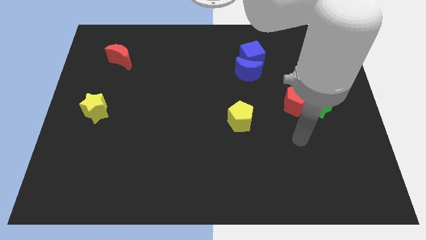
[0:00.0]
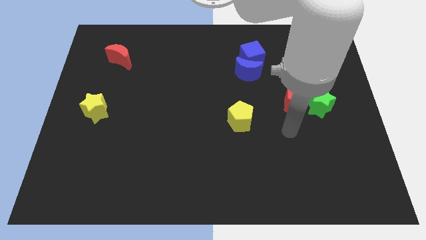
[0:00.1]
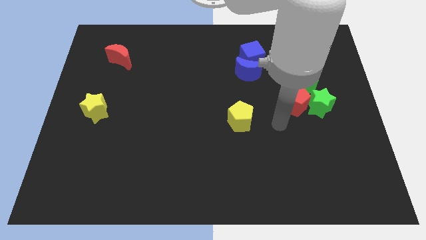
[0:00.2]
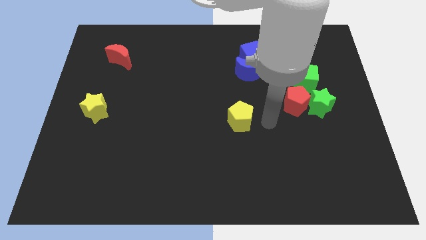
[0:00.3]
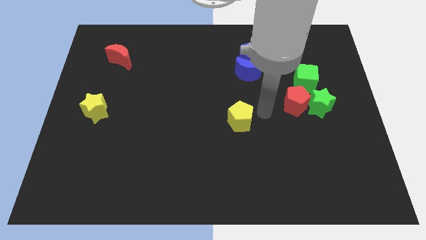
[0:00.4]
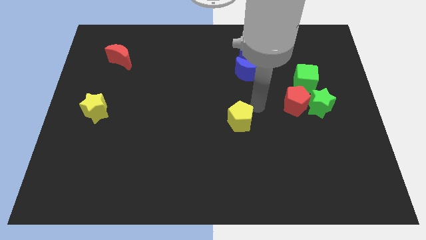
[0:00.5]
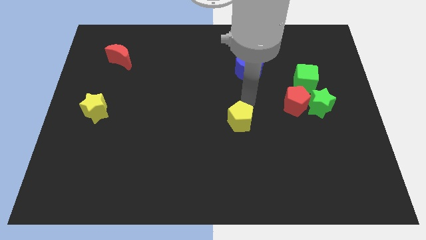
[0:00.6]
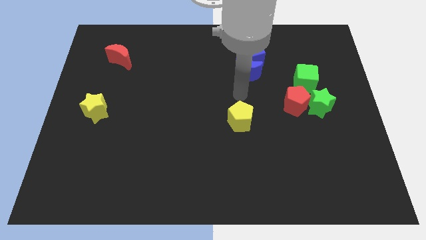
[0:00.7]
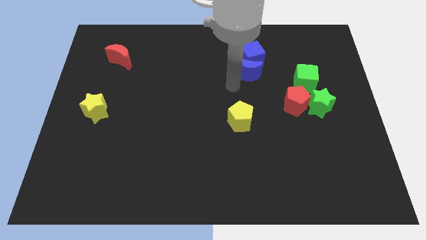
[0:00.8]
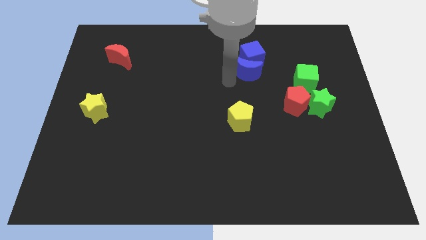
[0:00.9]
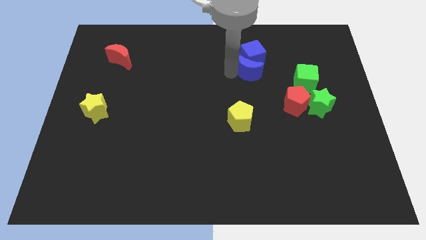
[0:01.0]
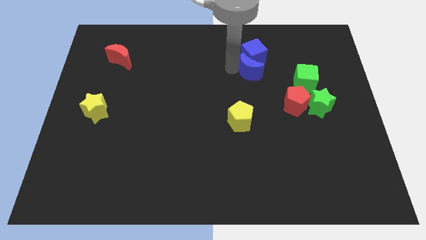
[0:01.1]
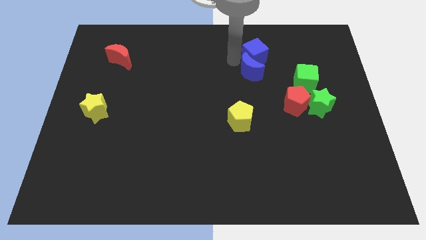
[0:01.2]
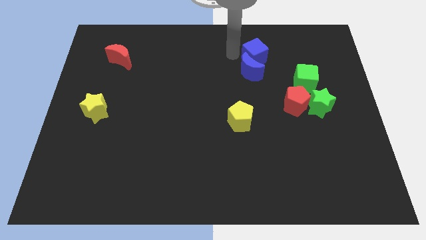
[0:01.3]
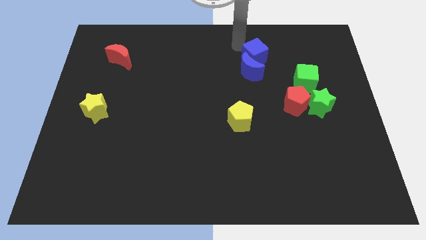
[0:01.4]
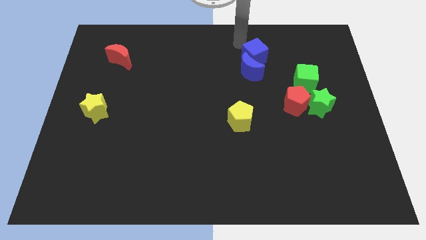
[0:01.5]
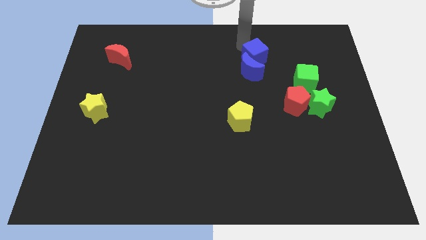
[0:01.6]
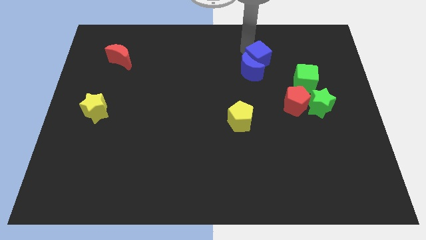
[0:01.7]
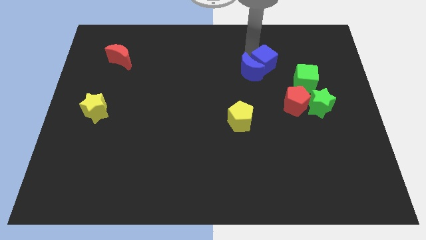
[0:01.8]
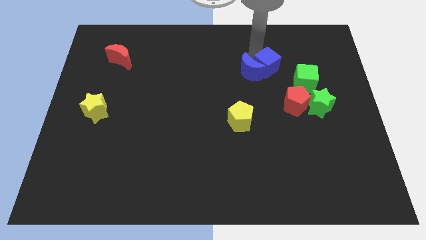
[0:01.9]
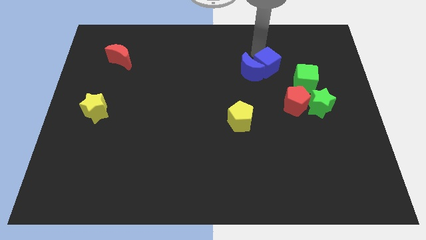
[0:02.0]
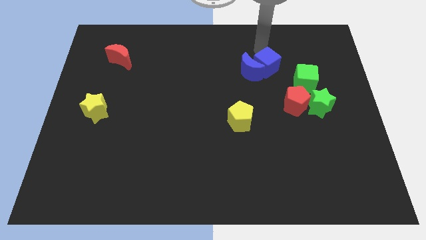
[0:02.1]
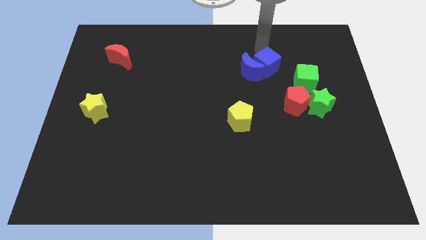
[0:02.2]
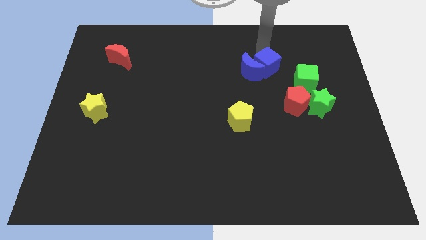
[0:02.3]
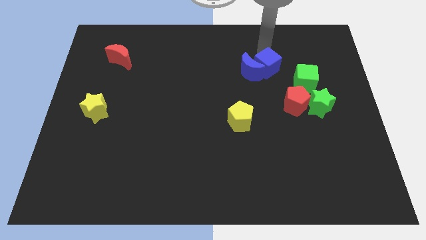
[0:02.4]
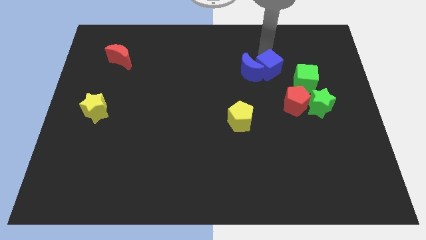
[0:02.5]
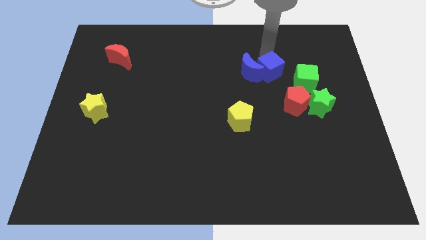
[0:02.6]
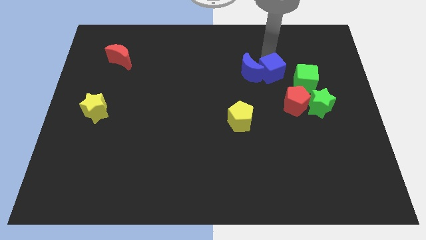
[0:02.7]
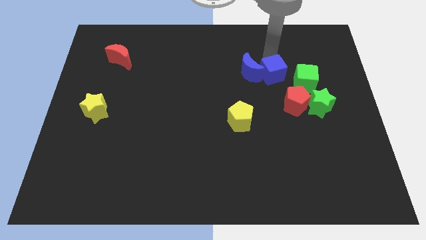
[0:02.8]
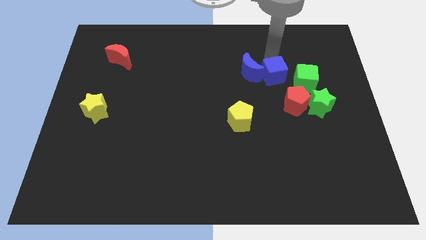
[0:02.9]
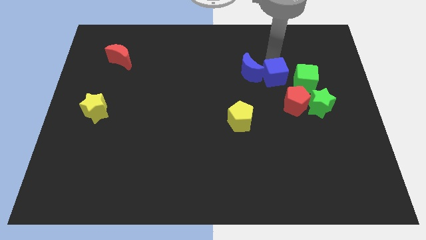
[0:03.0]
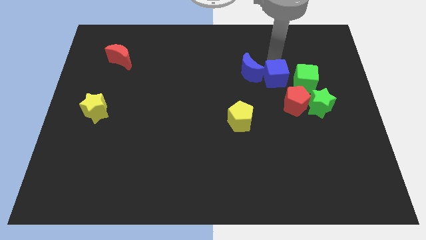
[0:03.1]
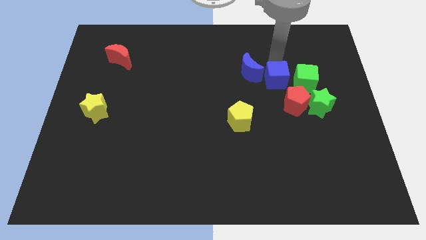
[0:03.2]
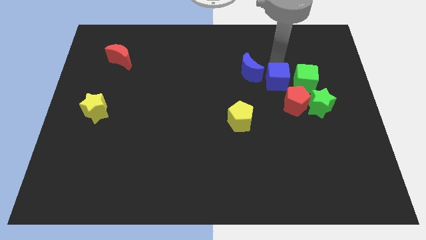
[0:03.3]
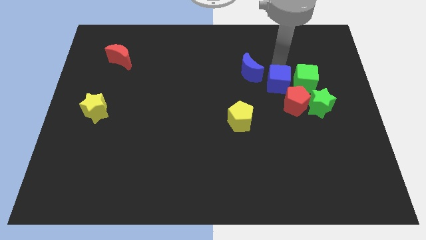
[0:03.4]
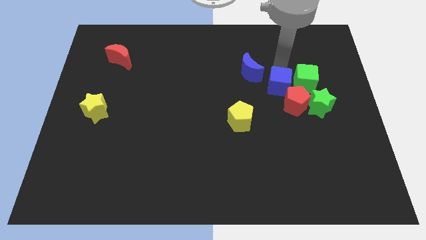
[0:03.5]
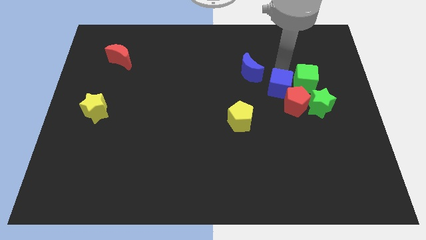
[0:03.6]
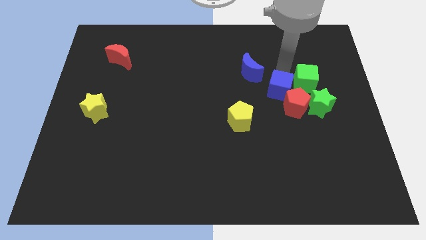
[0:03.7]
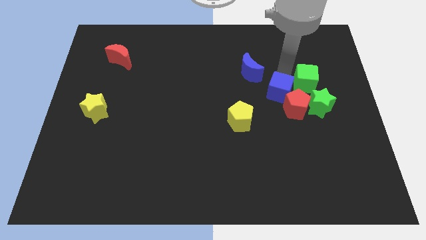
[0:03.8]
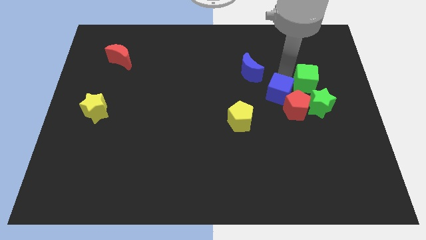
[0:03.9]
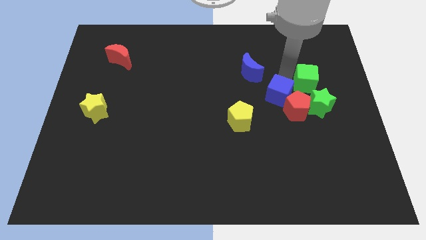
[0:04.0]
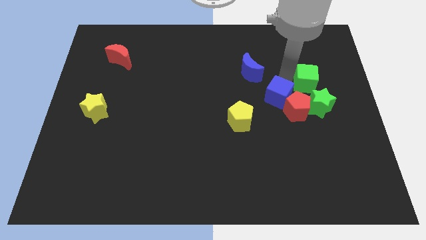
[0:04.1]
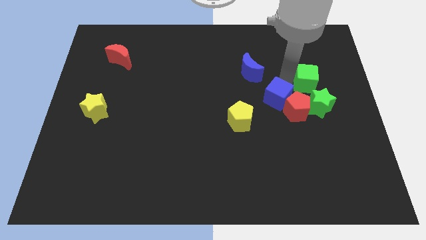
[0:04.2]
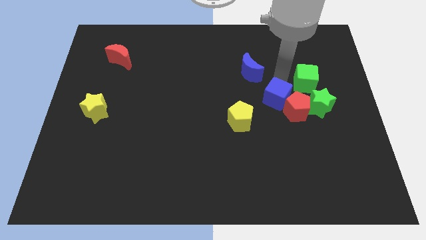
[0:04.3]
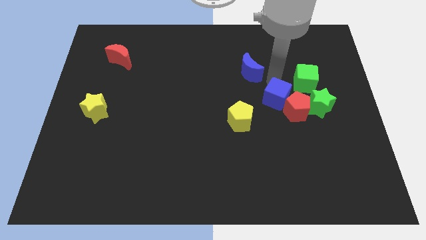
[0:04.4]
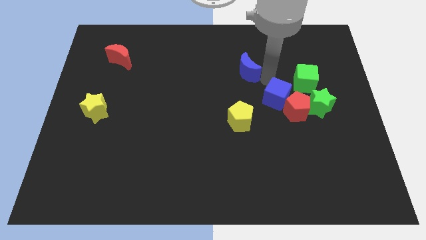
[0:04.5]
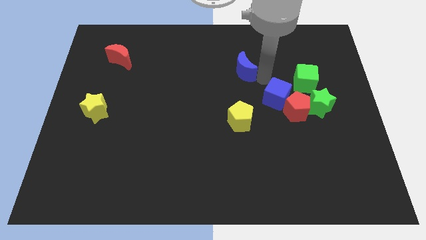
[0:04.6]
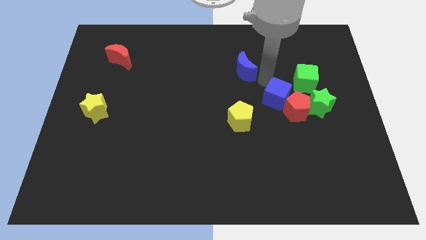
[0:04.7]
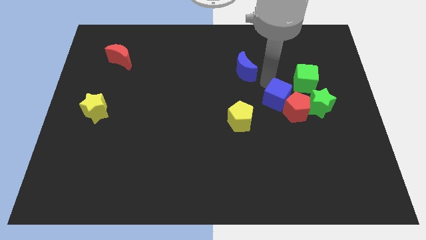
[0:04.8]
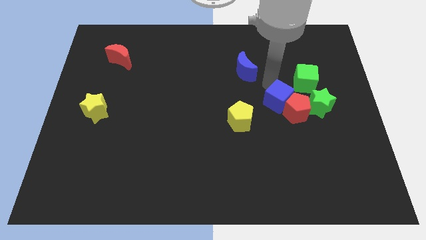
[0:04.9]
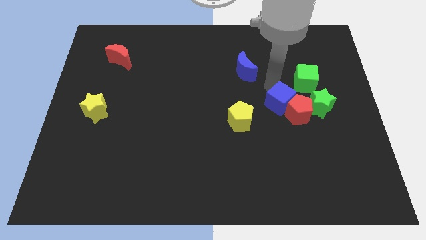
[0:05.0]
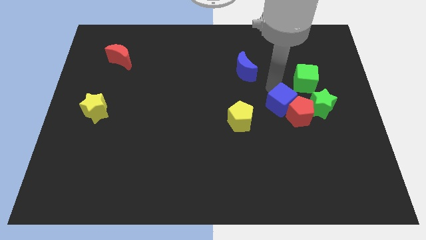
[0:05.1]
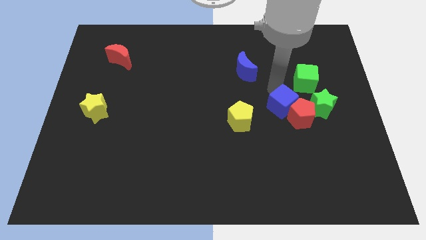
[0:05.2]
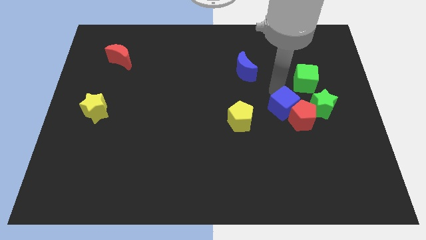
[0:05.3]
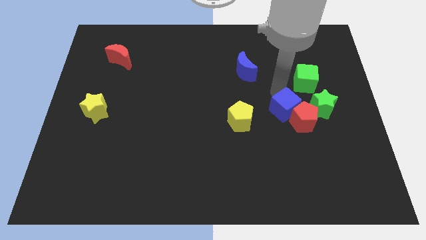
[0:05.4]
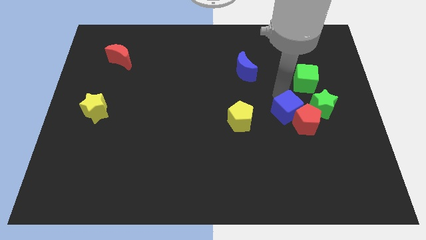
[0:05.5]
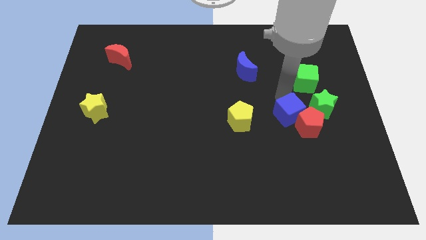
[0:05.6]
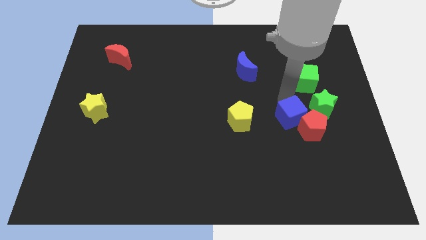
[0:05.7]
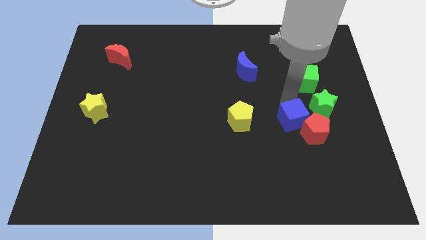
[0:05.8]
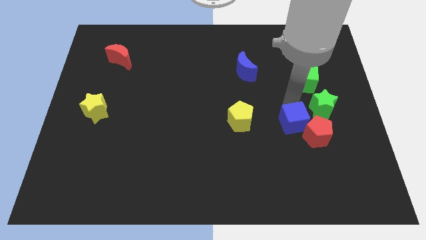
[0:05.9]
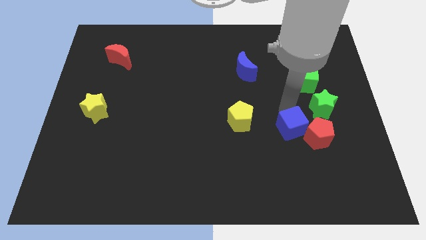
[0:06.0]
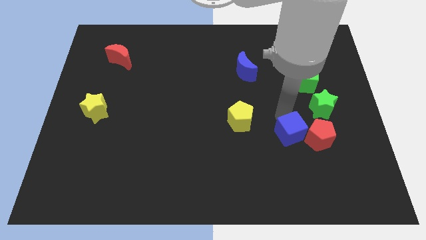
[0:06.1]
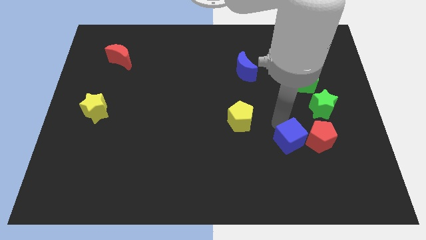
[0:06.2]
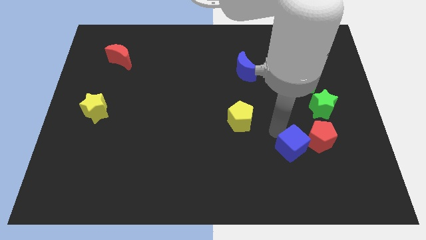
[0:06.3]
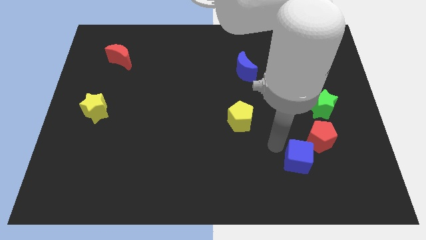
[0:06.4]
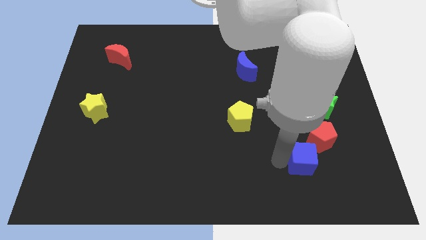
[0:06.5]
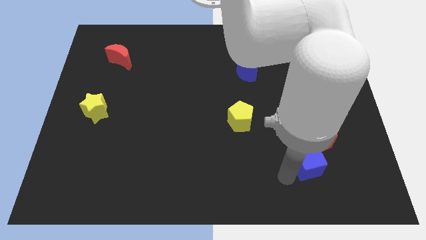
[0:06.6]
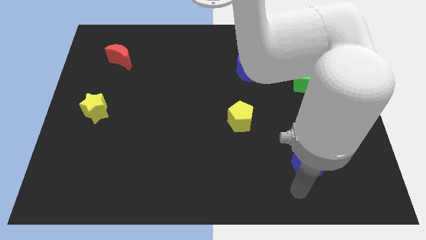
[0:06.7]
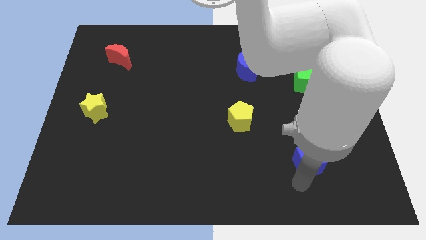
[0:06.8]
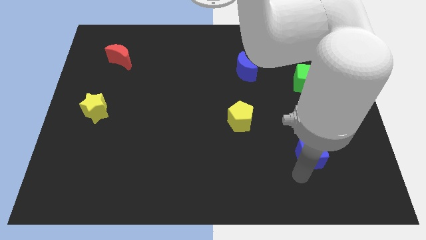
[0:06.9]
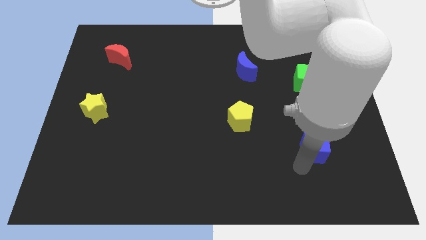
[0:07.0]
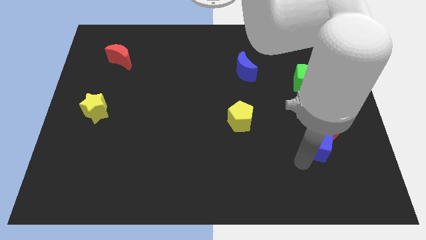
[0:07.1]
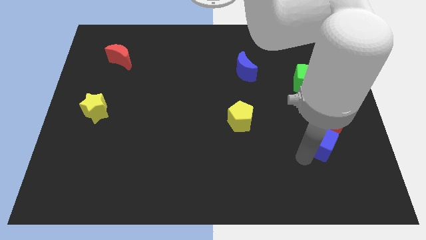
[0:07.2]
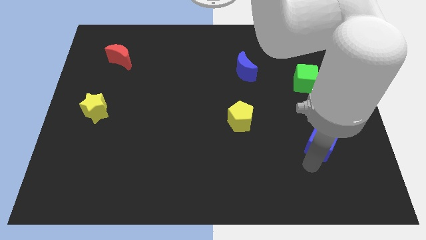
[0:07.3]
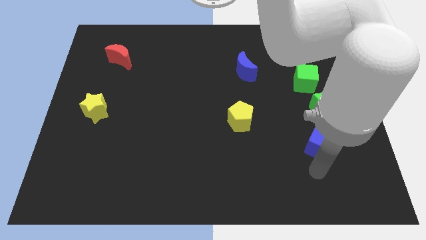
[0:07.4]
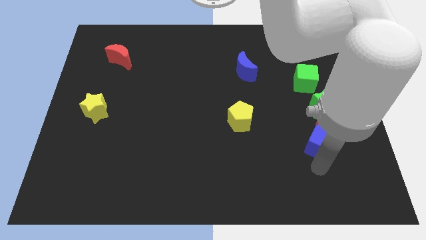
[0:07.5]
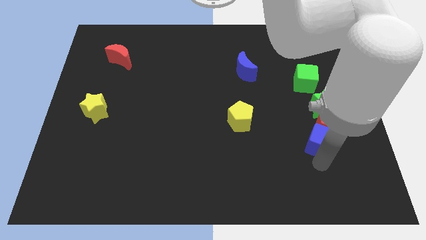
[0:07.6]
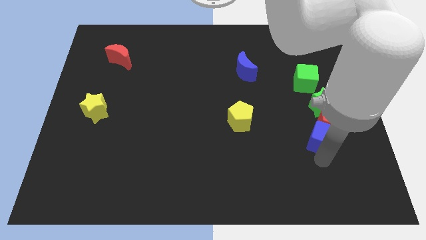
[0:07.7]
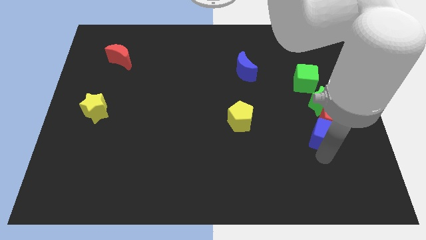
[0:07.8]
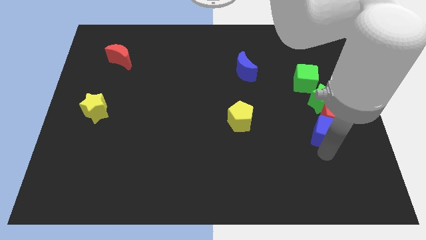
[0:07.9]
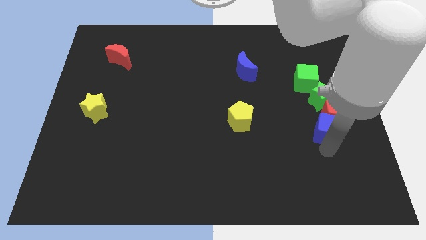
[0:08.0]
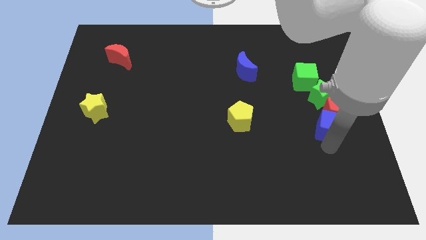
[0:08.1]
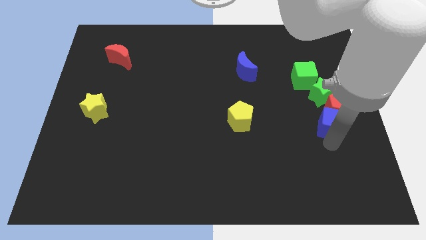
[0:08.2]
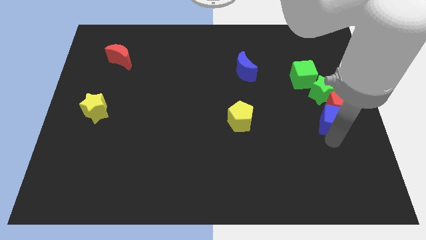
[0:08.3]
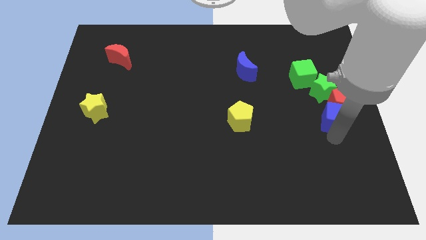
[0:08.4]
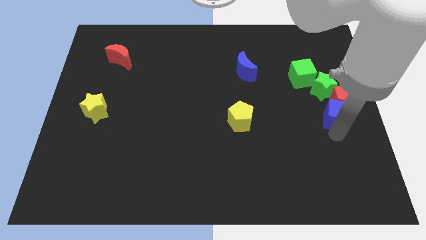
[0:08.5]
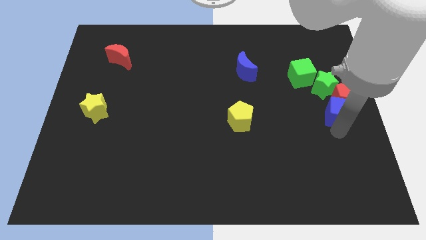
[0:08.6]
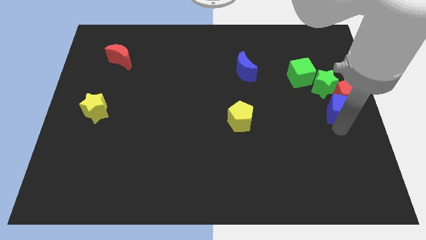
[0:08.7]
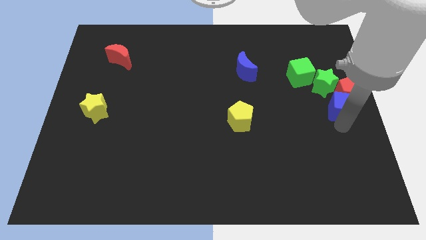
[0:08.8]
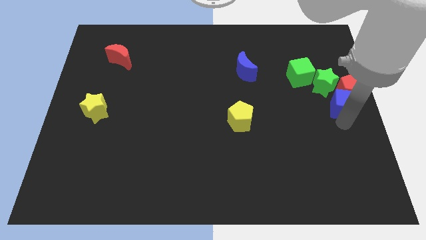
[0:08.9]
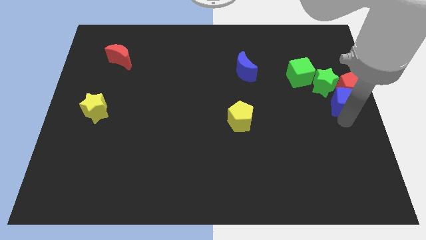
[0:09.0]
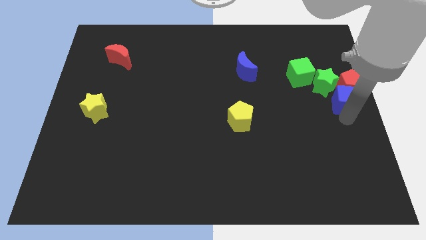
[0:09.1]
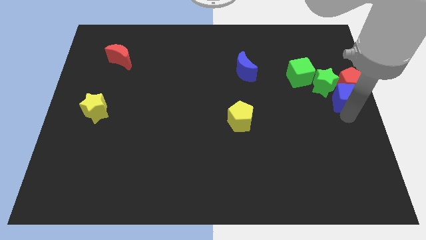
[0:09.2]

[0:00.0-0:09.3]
move the blue cube towards the green star
